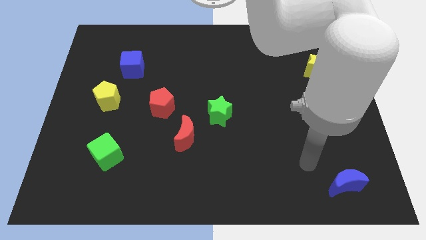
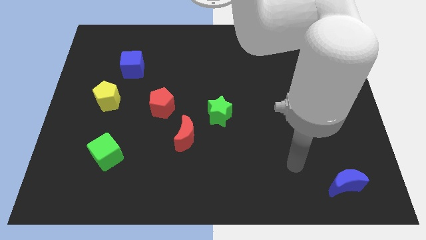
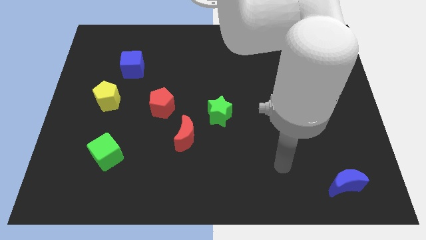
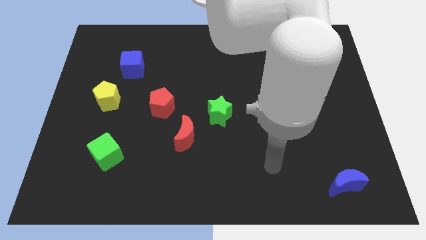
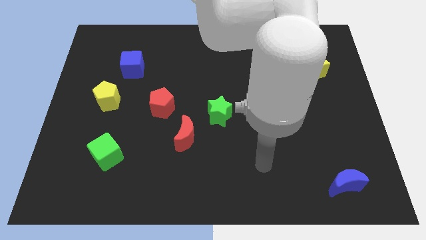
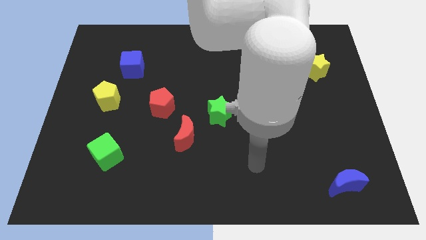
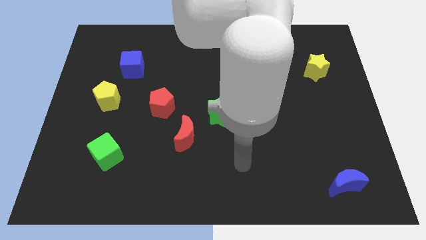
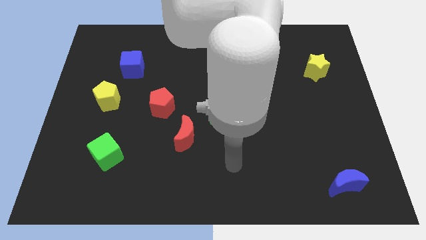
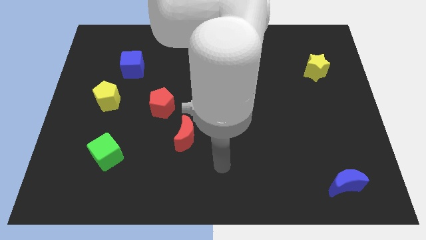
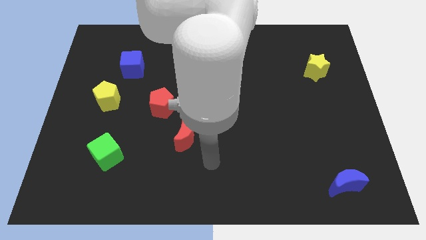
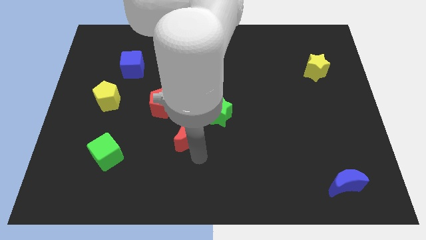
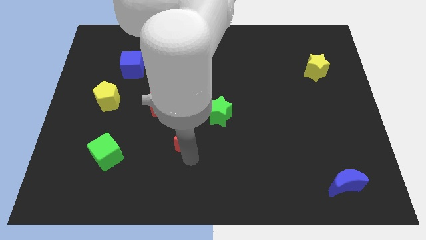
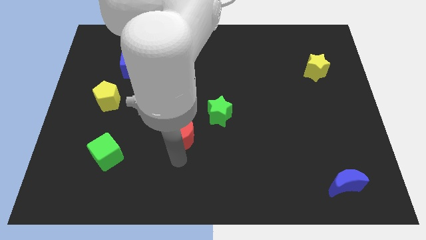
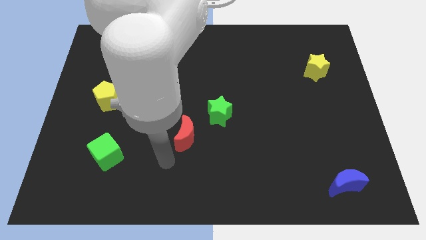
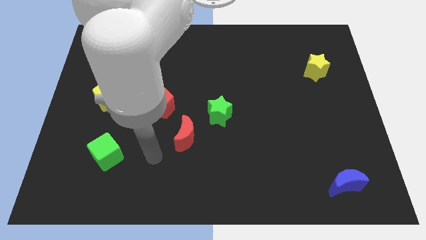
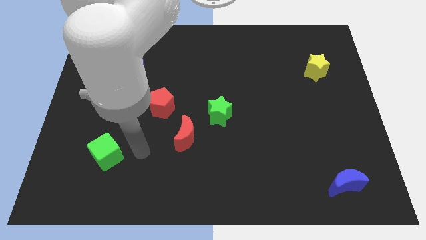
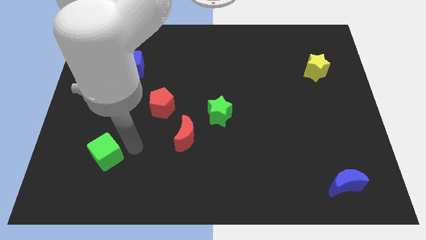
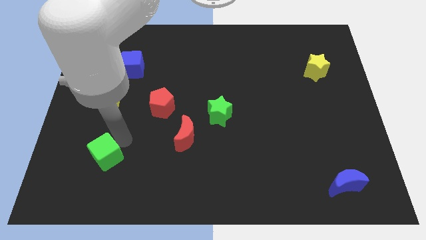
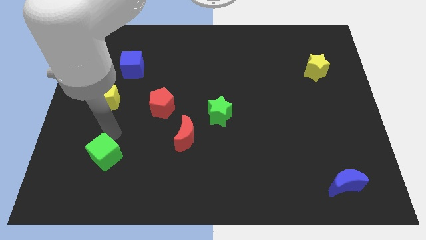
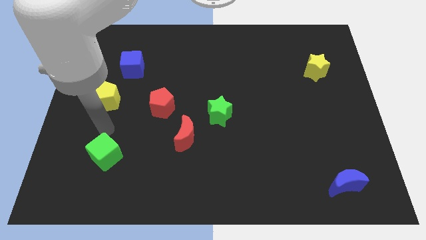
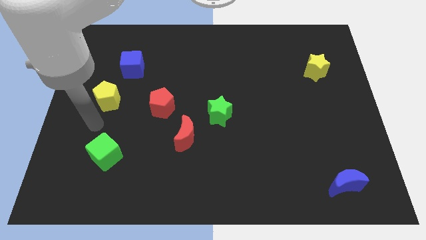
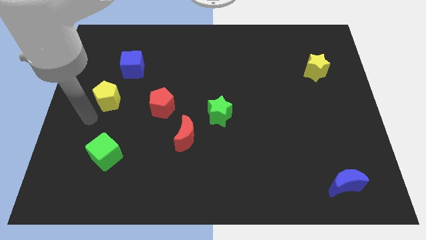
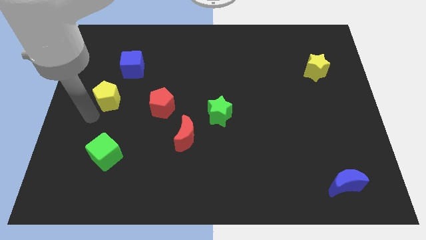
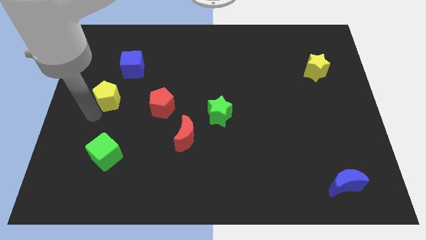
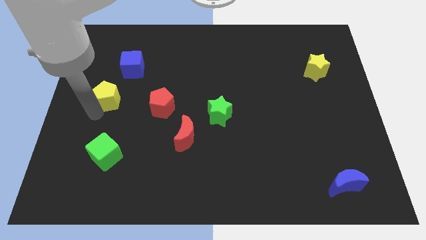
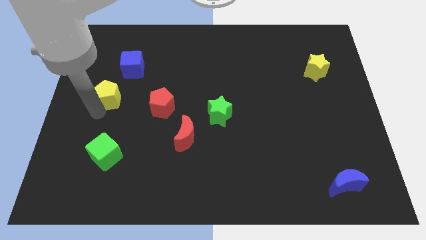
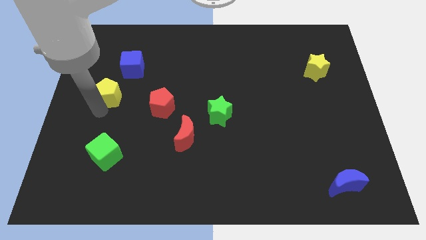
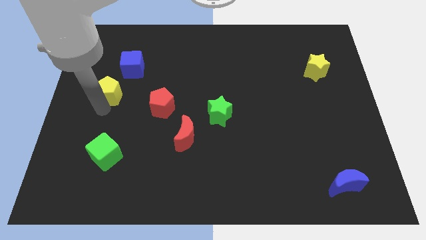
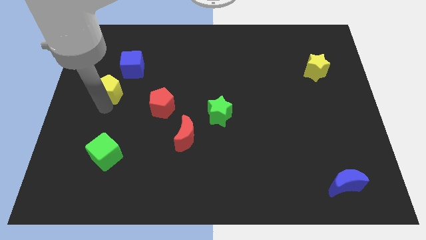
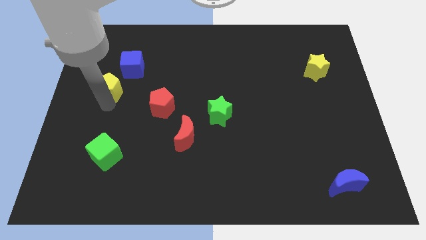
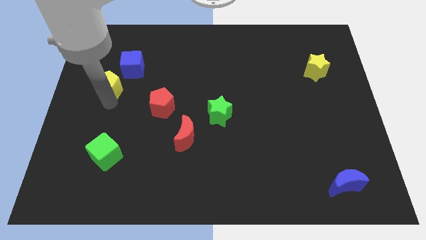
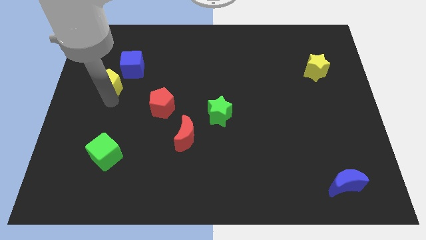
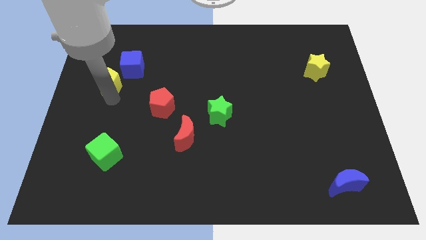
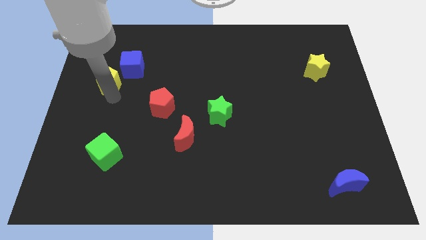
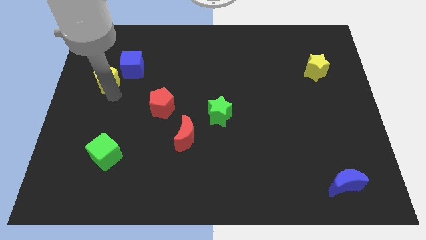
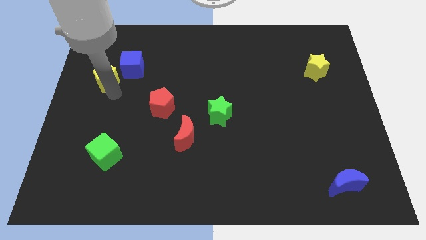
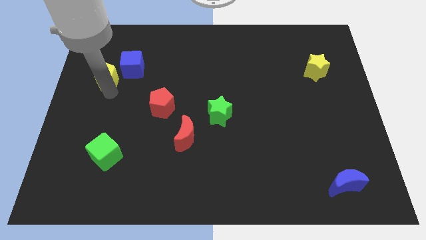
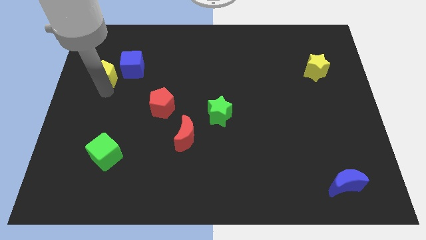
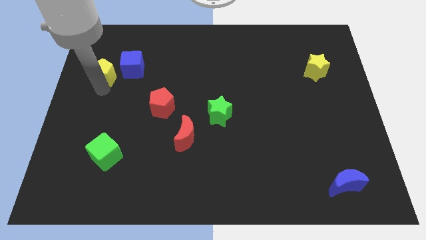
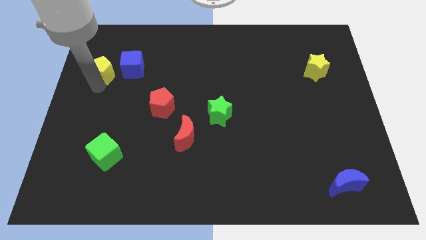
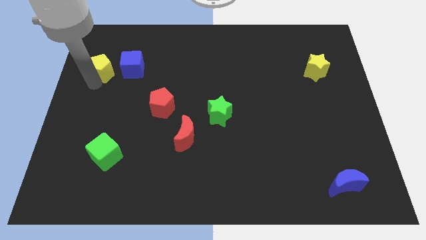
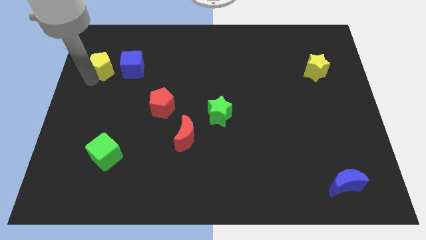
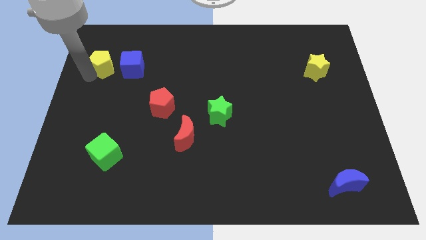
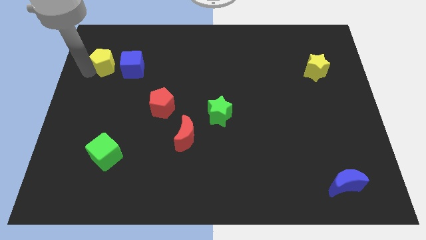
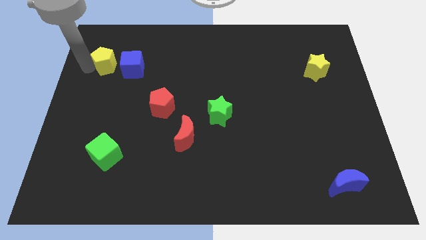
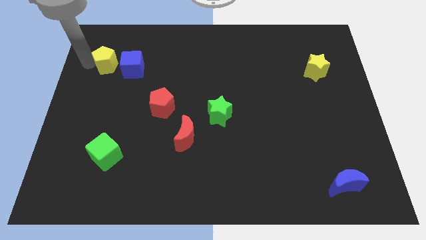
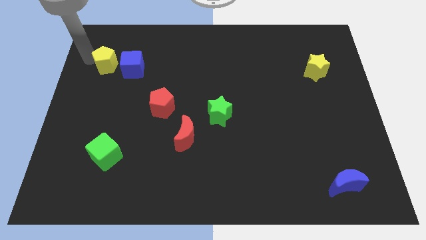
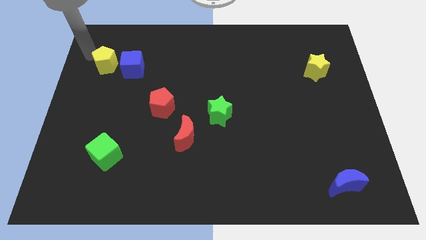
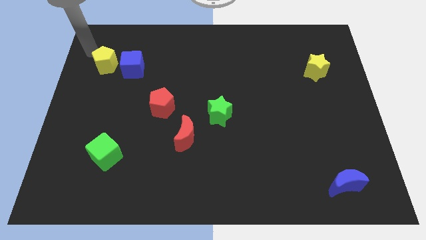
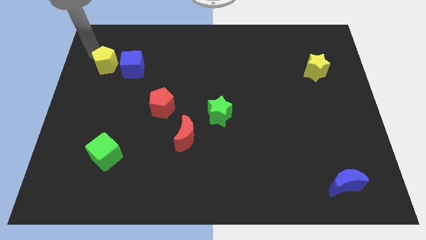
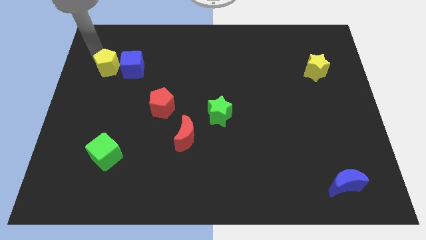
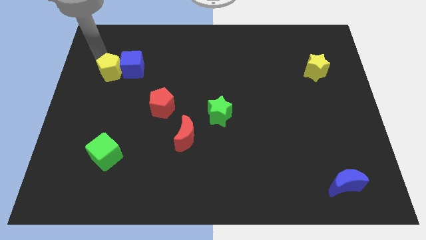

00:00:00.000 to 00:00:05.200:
move the yellow pentagon next to the blue cube

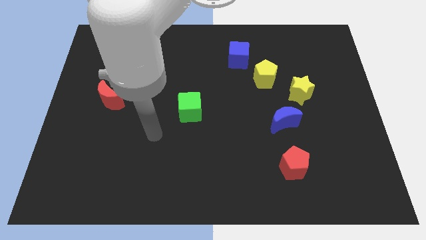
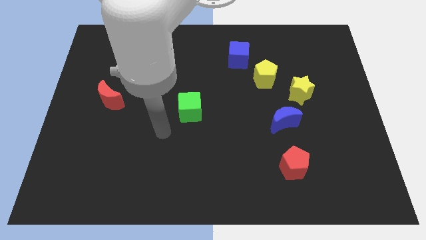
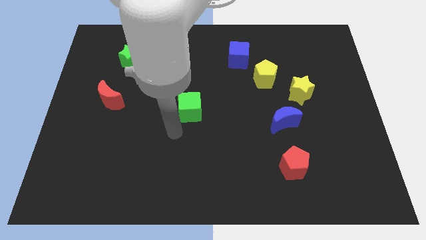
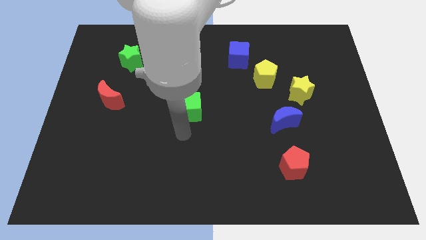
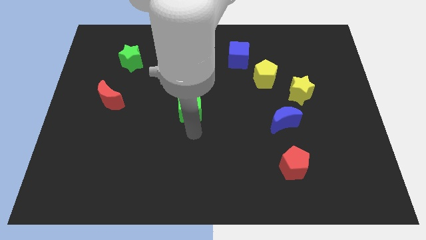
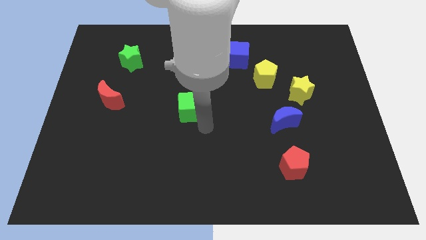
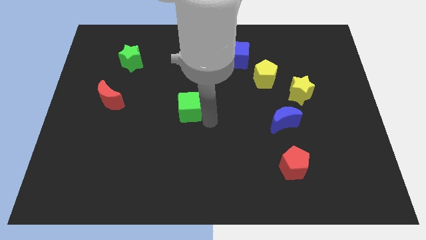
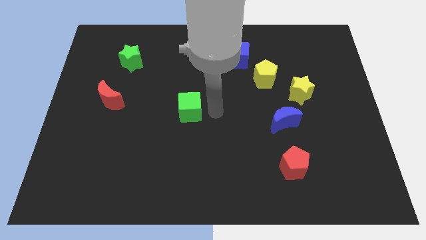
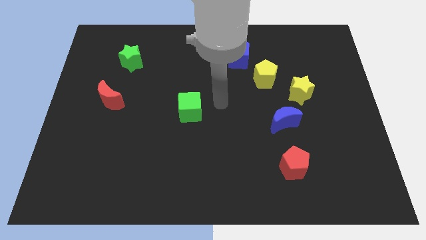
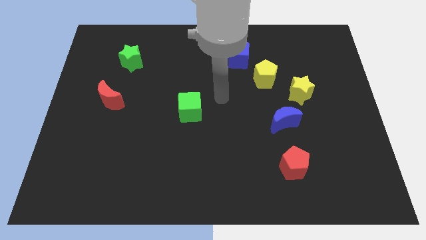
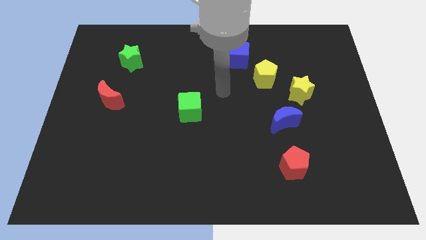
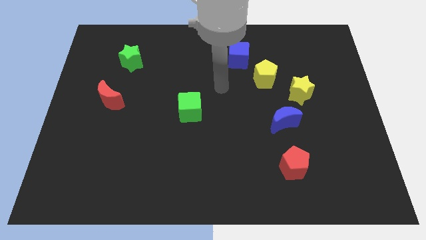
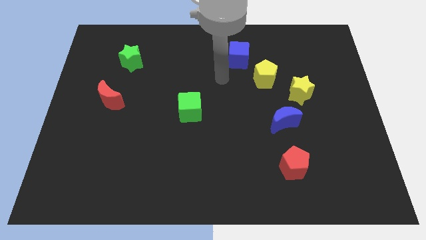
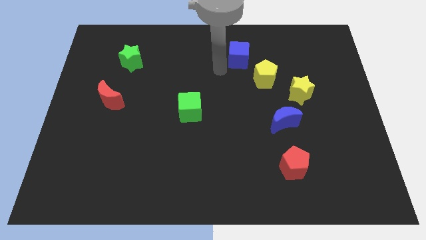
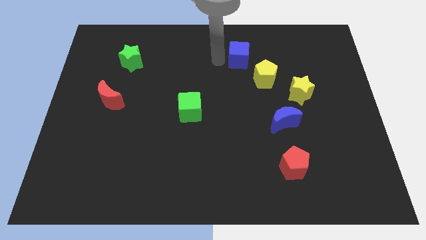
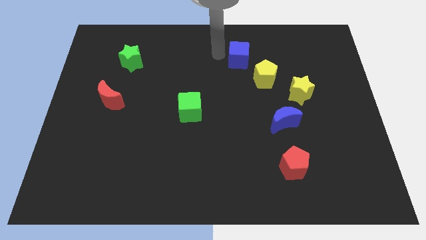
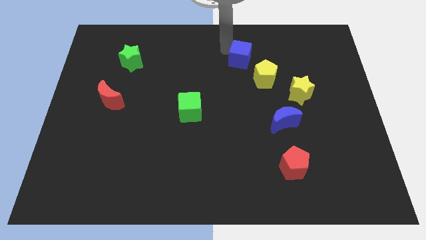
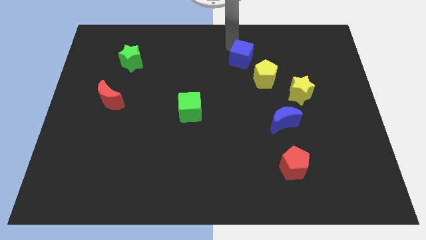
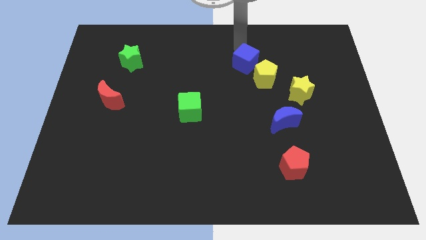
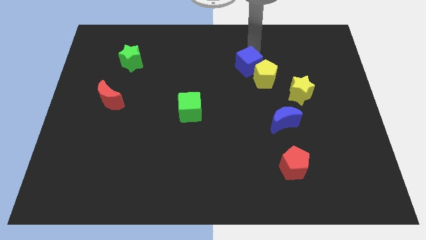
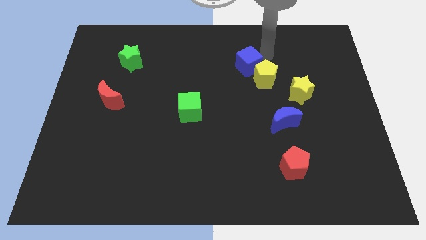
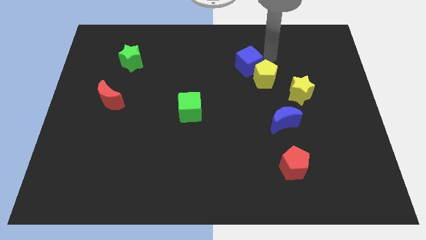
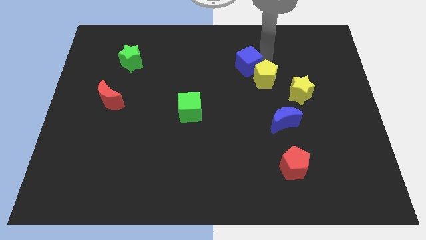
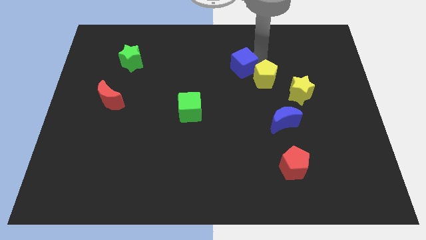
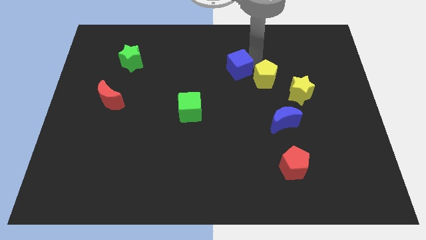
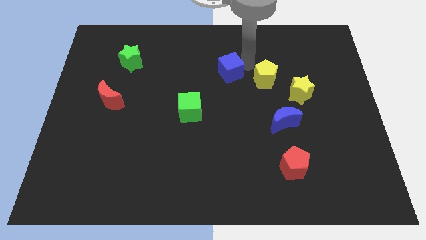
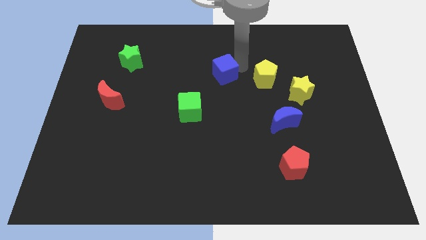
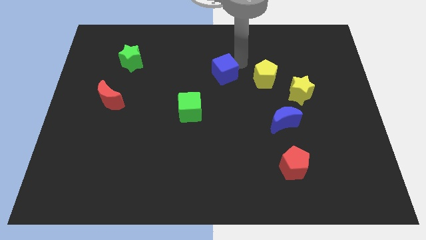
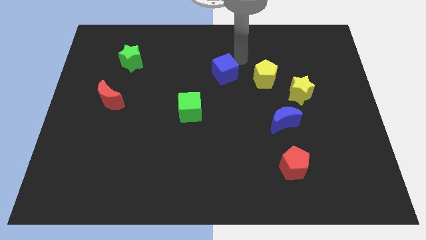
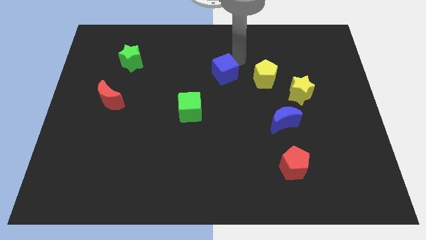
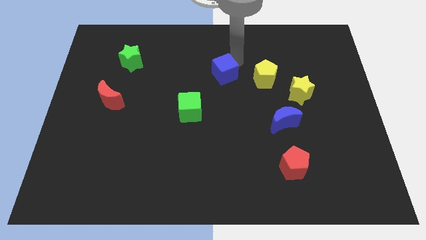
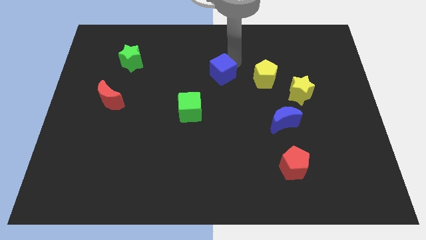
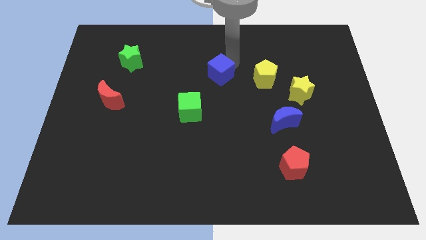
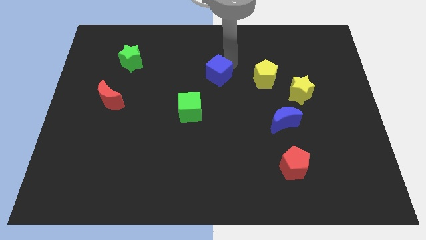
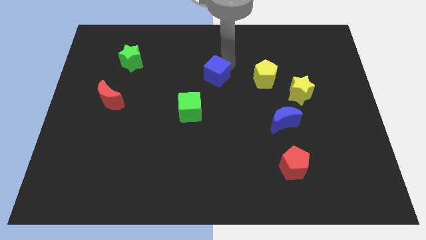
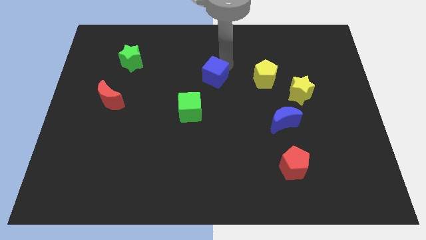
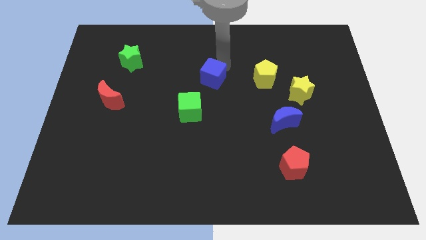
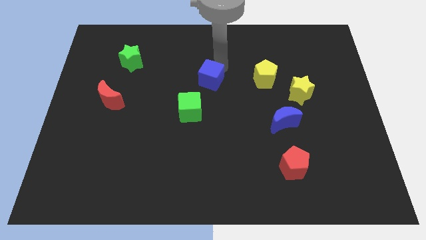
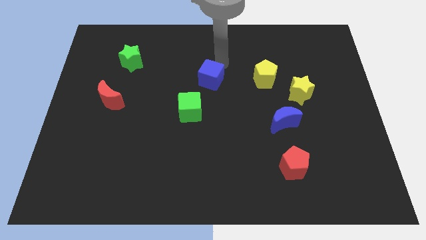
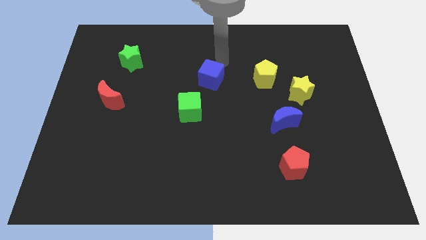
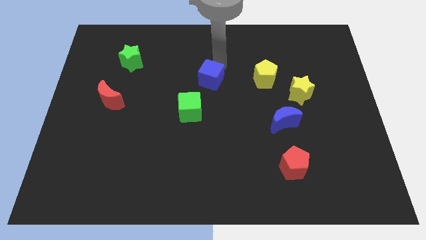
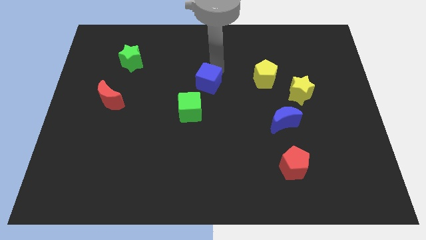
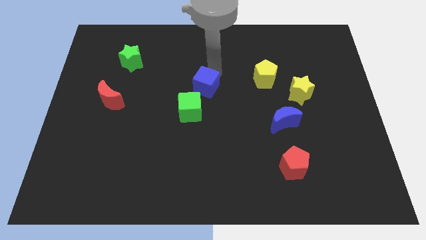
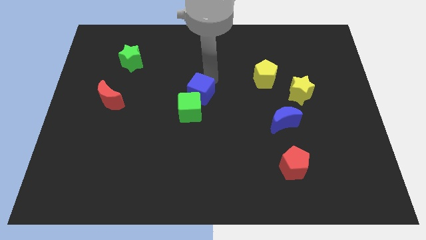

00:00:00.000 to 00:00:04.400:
move the blue cube next to the green cube
